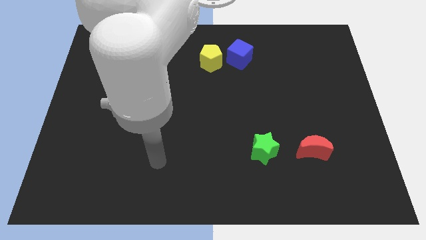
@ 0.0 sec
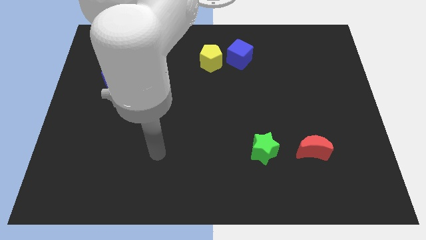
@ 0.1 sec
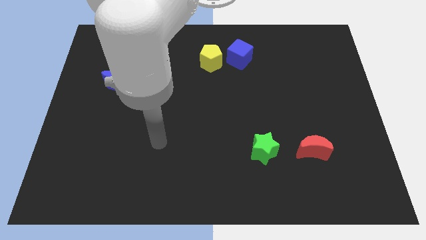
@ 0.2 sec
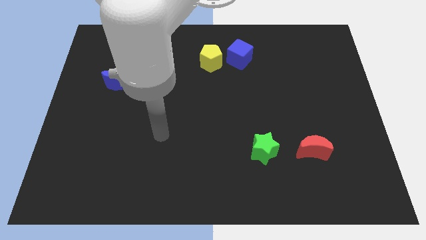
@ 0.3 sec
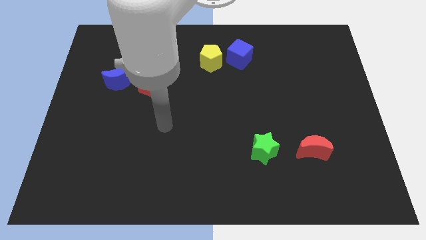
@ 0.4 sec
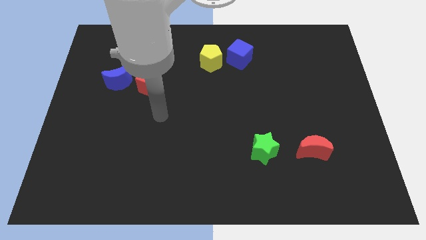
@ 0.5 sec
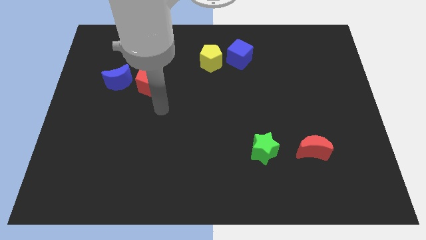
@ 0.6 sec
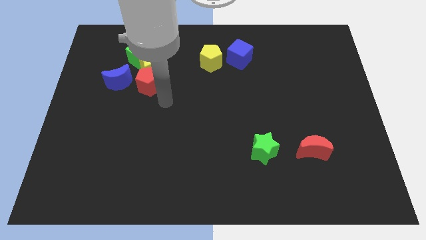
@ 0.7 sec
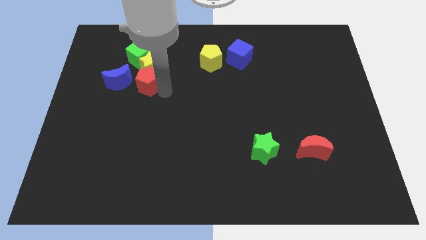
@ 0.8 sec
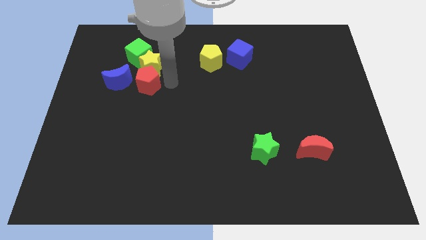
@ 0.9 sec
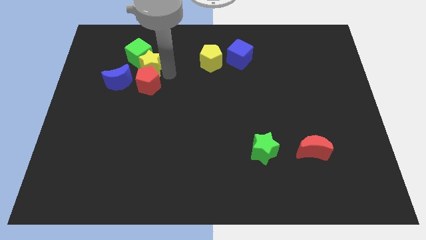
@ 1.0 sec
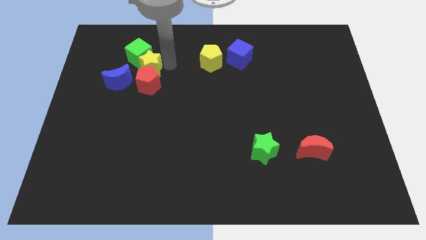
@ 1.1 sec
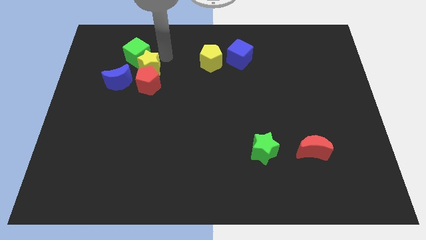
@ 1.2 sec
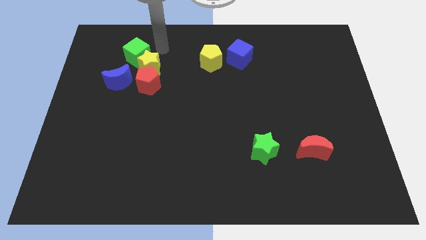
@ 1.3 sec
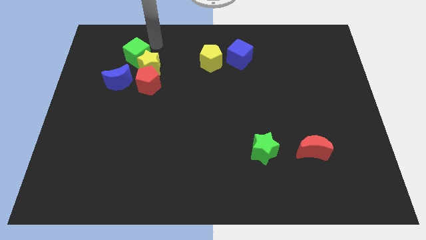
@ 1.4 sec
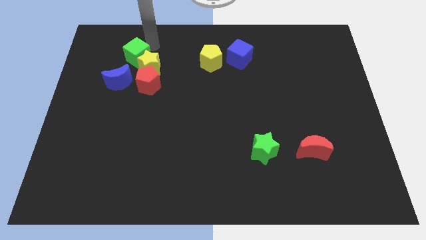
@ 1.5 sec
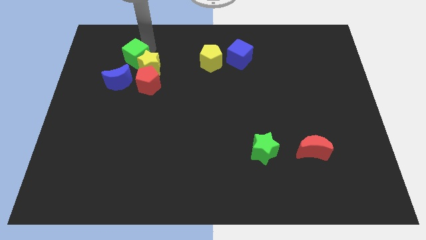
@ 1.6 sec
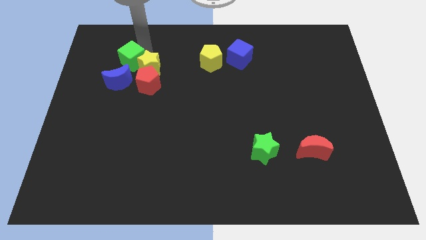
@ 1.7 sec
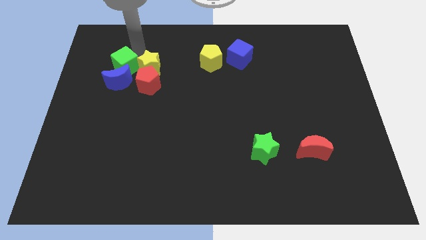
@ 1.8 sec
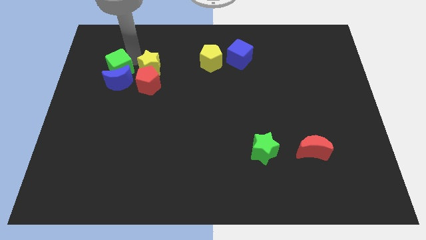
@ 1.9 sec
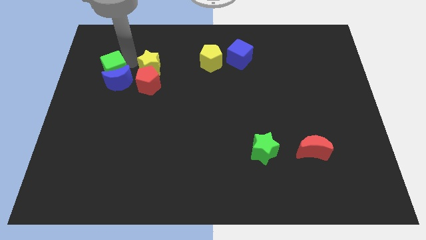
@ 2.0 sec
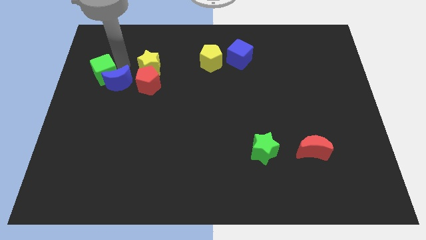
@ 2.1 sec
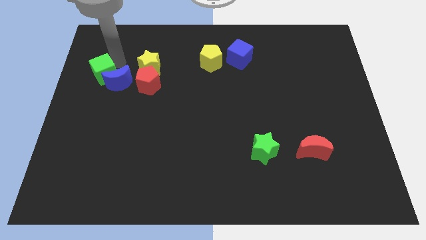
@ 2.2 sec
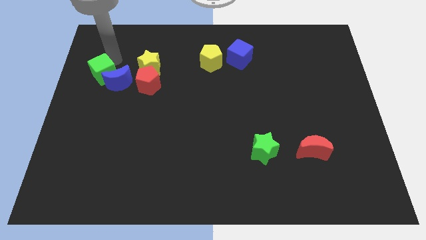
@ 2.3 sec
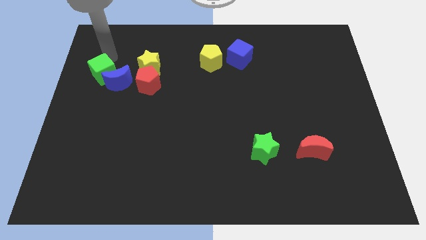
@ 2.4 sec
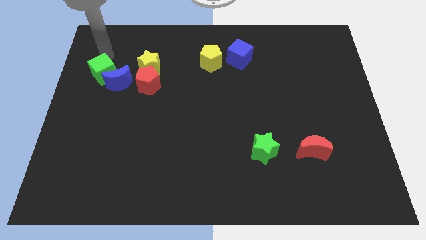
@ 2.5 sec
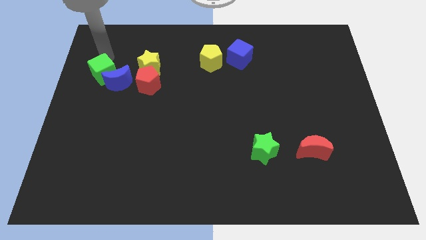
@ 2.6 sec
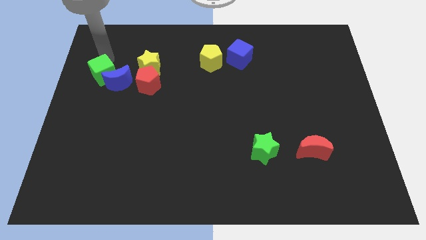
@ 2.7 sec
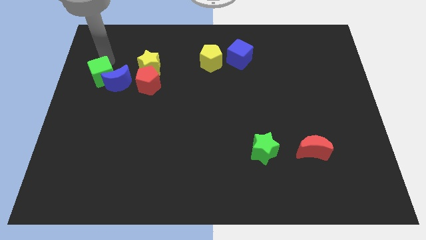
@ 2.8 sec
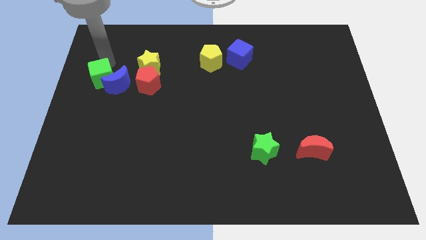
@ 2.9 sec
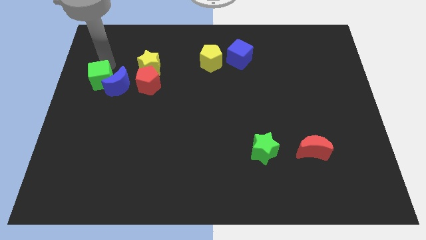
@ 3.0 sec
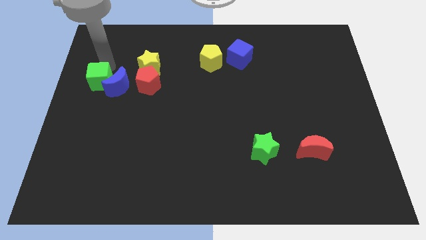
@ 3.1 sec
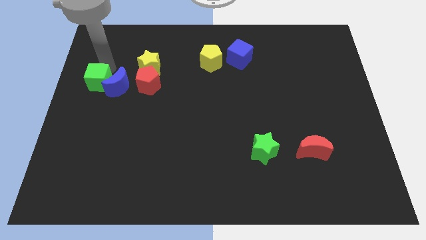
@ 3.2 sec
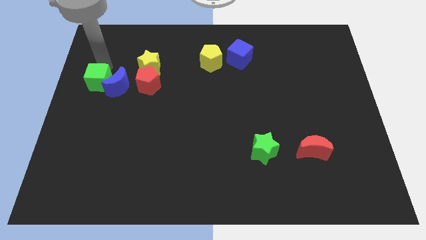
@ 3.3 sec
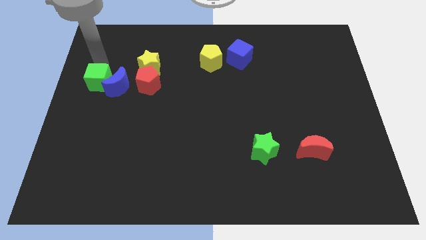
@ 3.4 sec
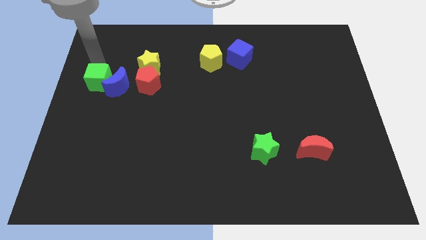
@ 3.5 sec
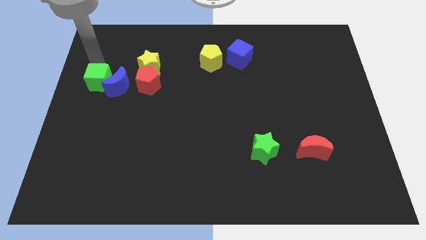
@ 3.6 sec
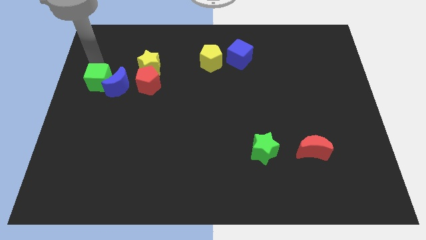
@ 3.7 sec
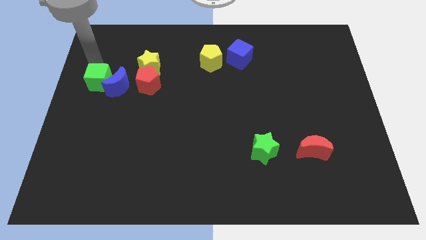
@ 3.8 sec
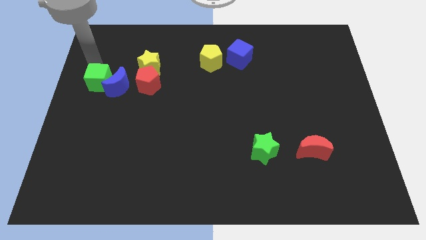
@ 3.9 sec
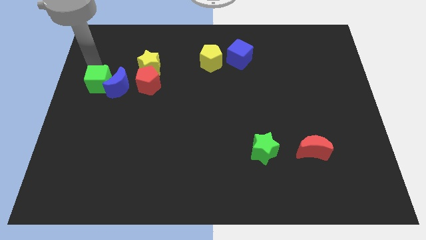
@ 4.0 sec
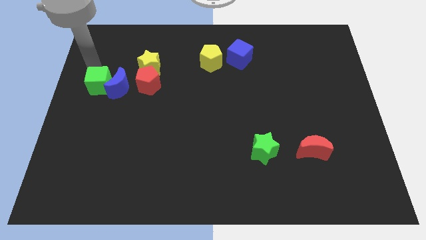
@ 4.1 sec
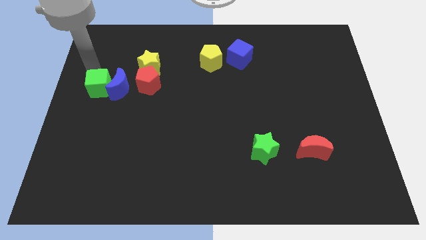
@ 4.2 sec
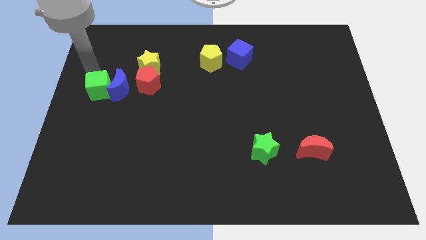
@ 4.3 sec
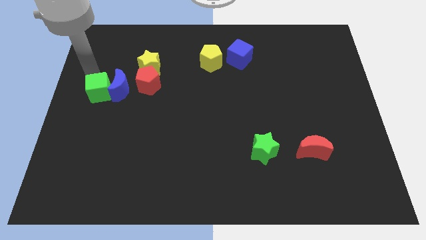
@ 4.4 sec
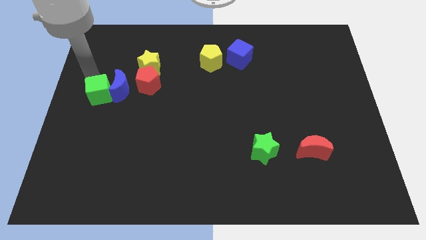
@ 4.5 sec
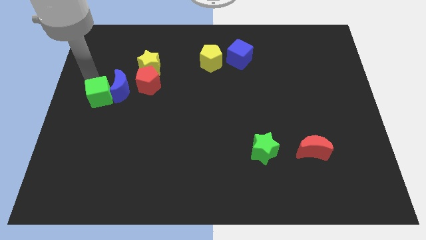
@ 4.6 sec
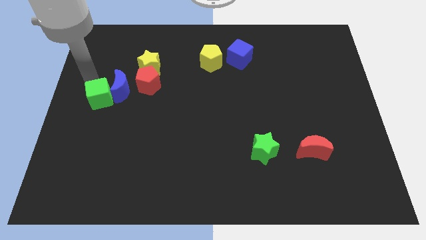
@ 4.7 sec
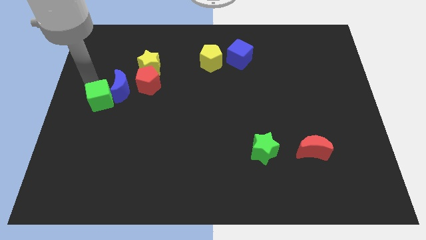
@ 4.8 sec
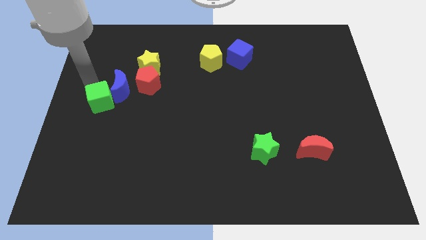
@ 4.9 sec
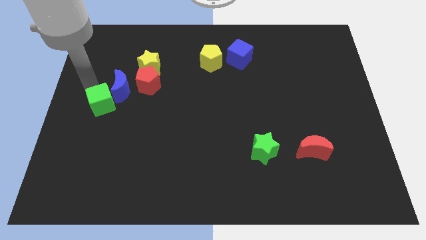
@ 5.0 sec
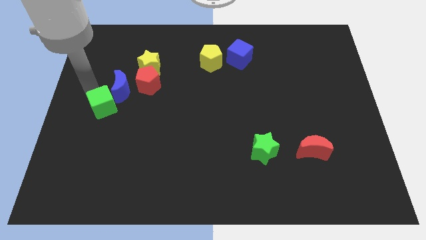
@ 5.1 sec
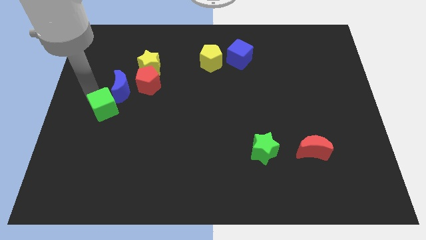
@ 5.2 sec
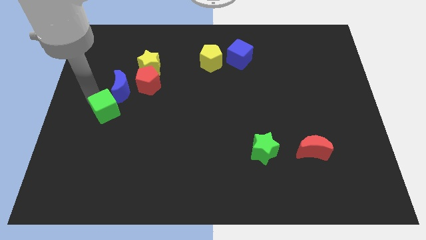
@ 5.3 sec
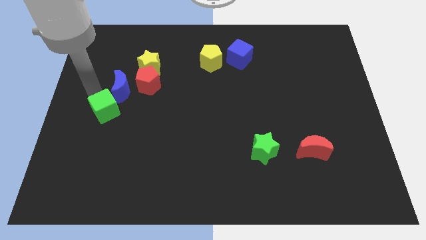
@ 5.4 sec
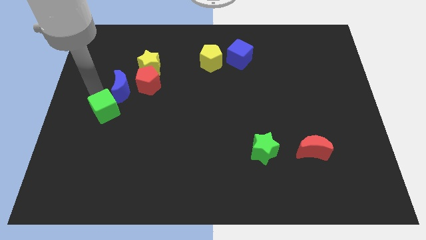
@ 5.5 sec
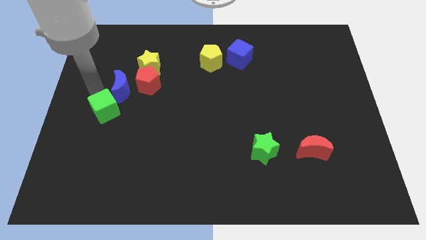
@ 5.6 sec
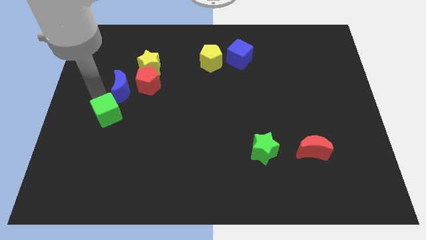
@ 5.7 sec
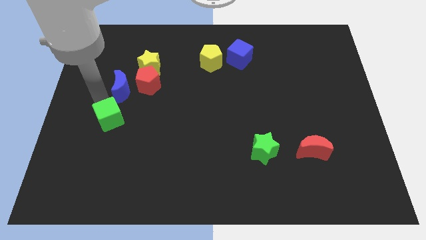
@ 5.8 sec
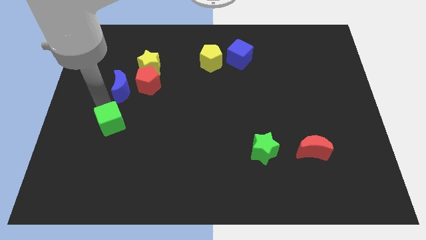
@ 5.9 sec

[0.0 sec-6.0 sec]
slide the green cube downwards

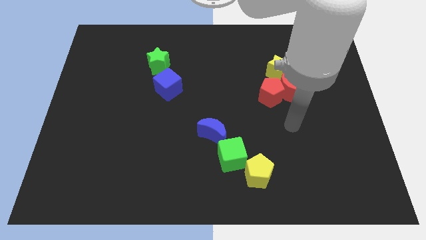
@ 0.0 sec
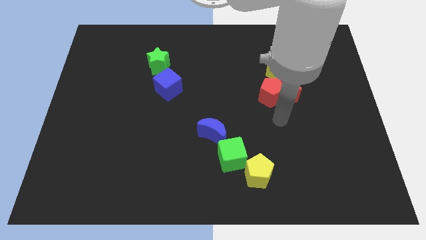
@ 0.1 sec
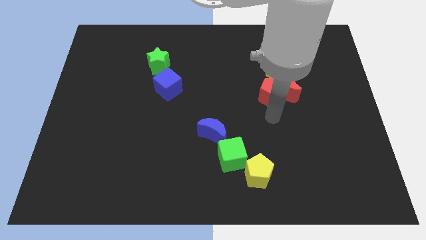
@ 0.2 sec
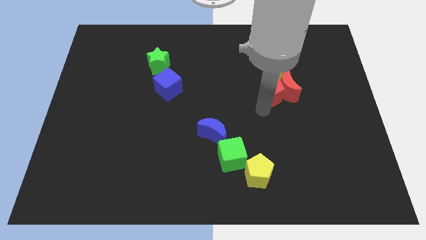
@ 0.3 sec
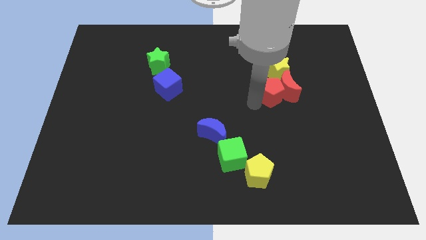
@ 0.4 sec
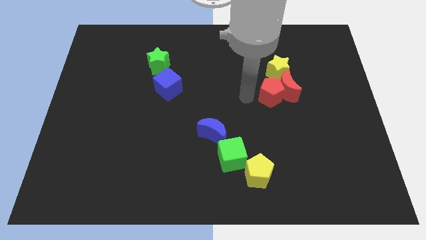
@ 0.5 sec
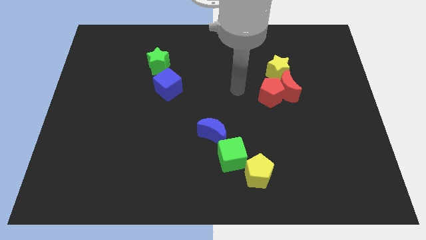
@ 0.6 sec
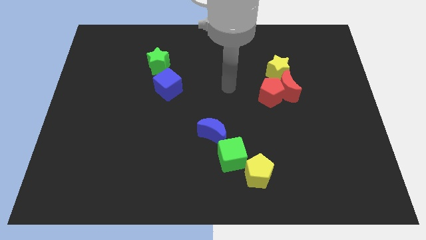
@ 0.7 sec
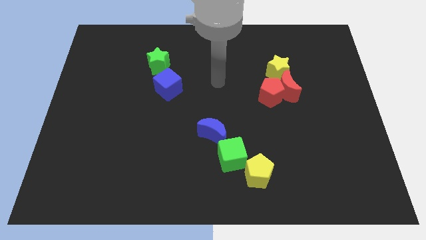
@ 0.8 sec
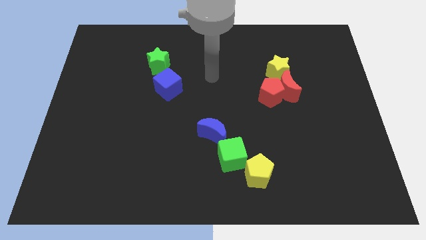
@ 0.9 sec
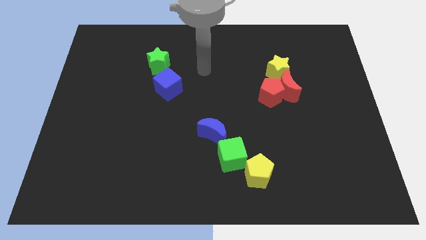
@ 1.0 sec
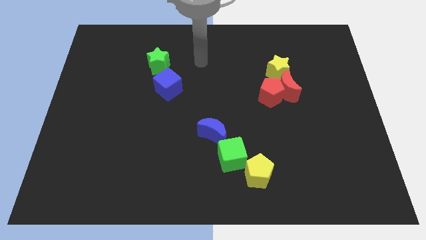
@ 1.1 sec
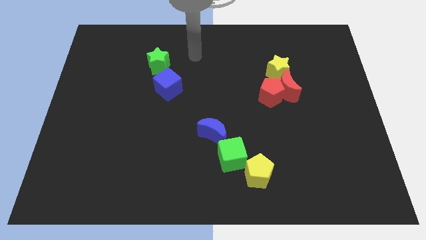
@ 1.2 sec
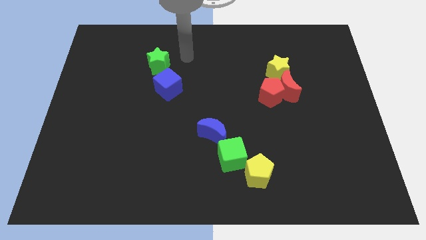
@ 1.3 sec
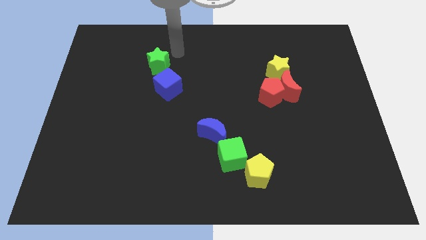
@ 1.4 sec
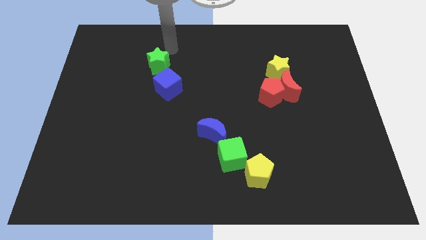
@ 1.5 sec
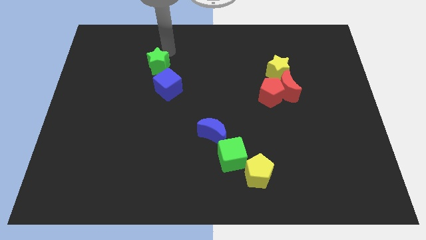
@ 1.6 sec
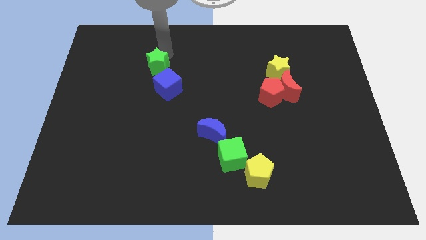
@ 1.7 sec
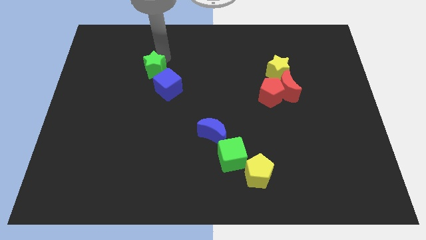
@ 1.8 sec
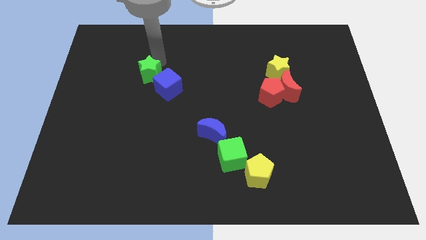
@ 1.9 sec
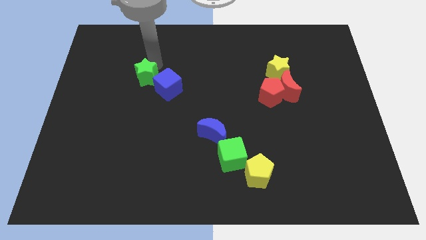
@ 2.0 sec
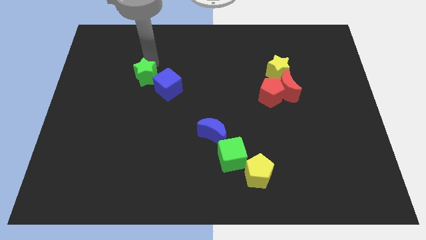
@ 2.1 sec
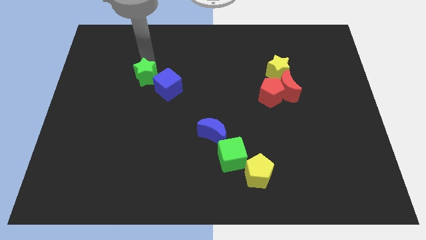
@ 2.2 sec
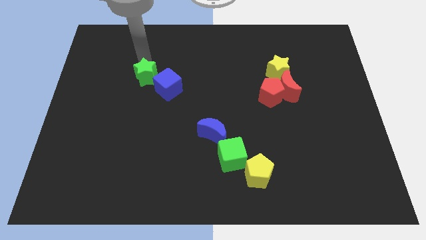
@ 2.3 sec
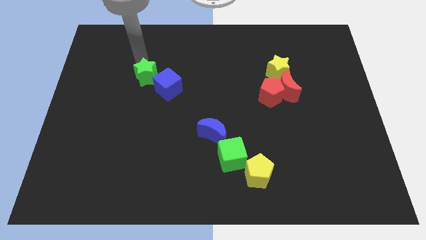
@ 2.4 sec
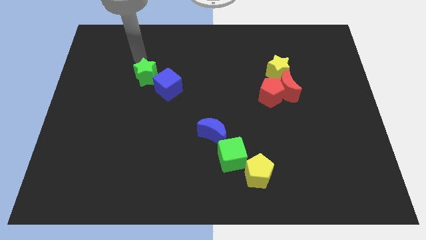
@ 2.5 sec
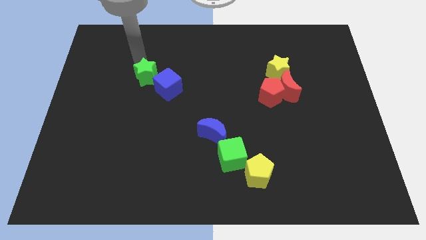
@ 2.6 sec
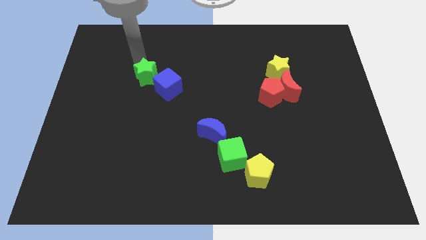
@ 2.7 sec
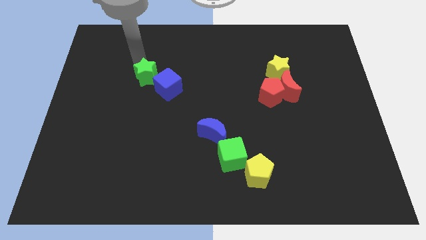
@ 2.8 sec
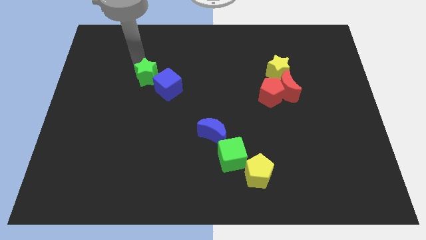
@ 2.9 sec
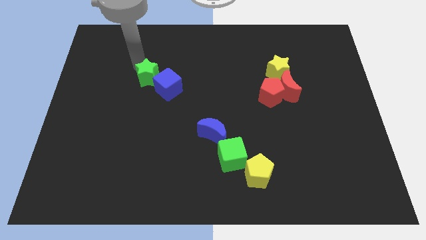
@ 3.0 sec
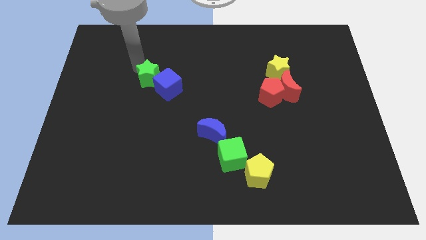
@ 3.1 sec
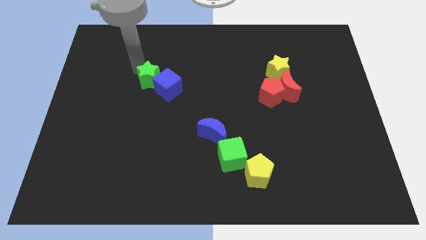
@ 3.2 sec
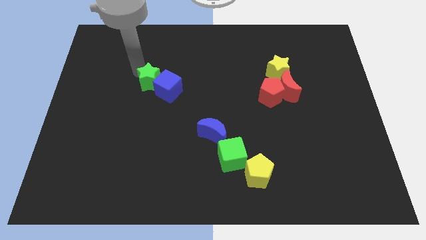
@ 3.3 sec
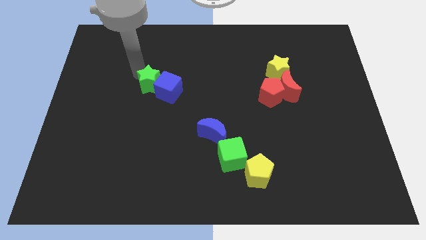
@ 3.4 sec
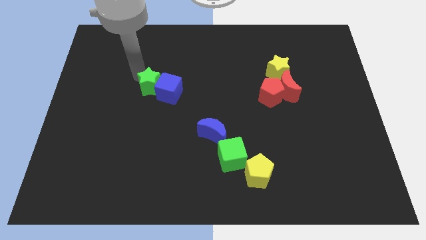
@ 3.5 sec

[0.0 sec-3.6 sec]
slightly slide the green star downwards
